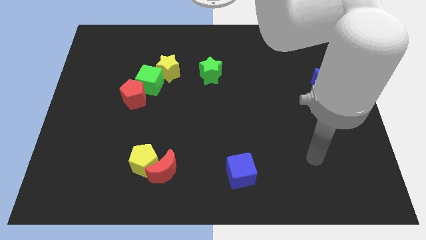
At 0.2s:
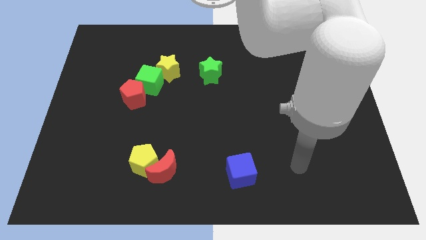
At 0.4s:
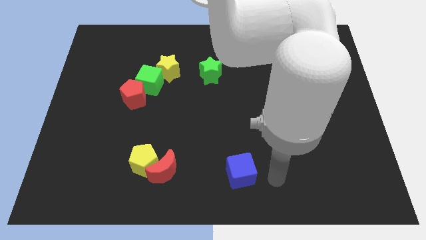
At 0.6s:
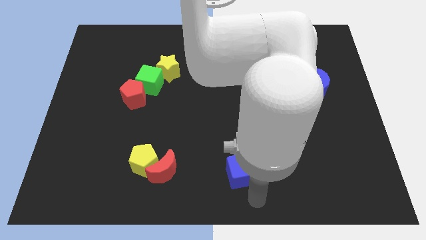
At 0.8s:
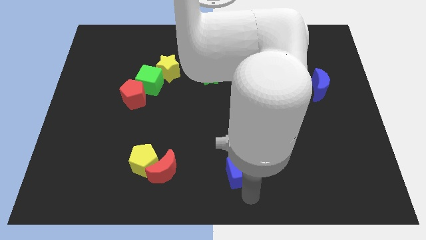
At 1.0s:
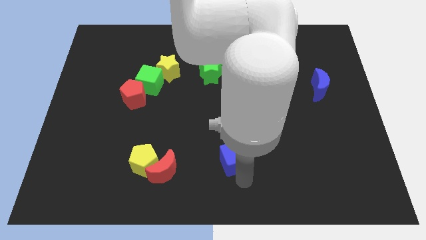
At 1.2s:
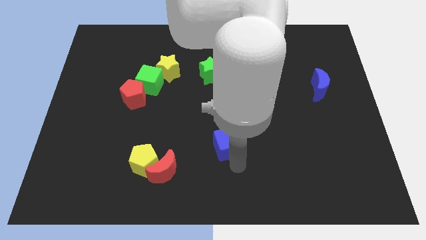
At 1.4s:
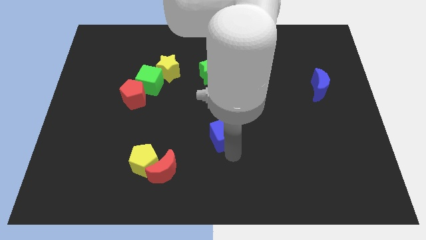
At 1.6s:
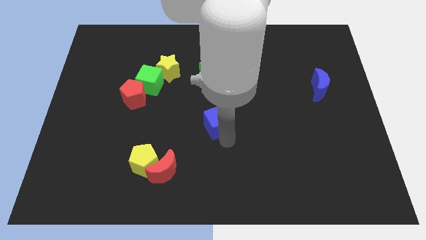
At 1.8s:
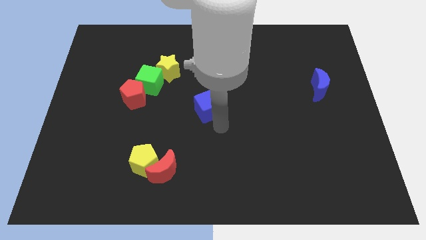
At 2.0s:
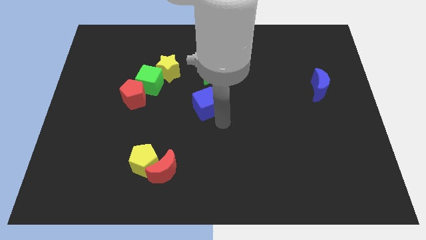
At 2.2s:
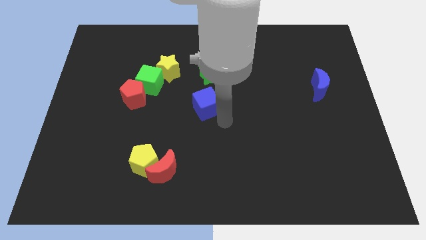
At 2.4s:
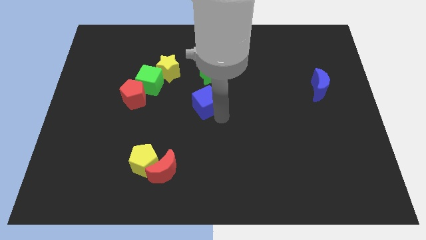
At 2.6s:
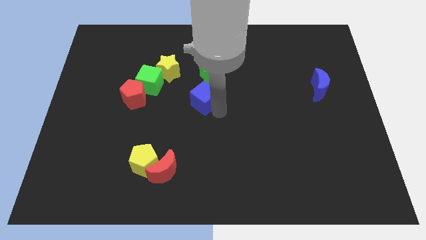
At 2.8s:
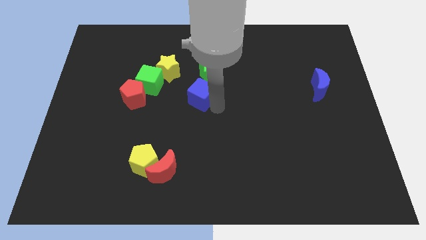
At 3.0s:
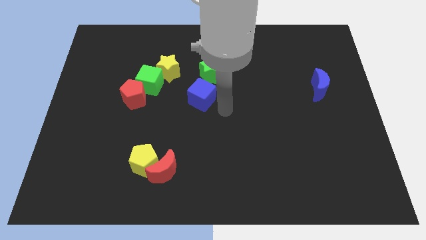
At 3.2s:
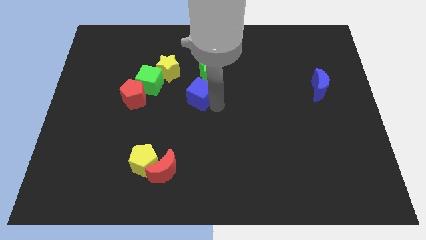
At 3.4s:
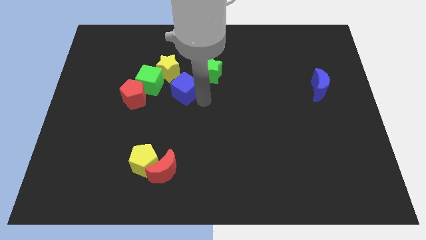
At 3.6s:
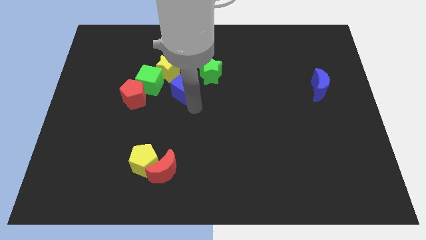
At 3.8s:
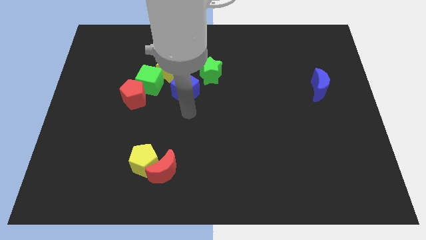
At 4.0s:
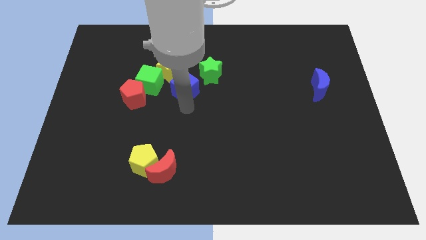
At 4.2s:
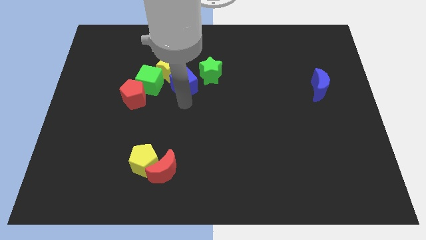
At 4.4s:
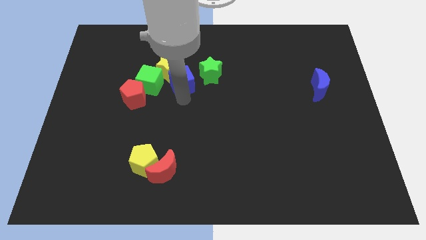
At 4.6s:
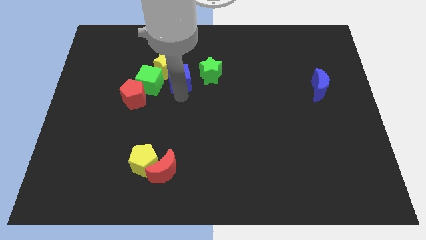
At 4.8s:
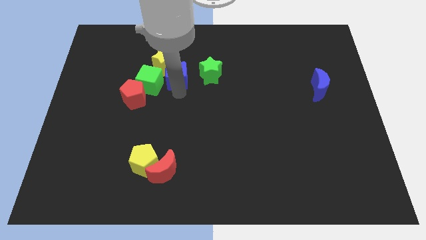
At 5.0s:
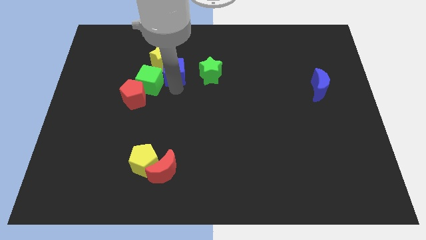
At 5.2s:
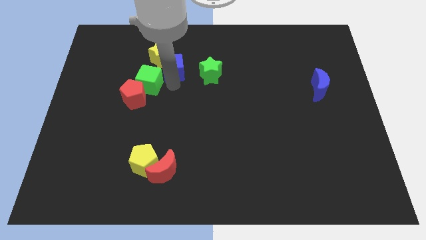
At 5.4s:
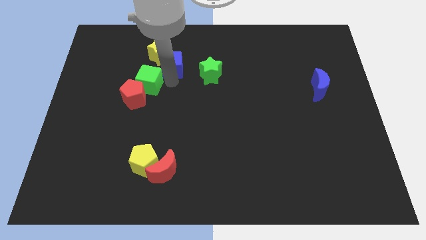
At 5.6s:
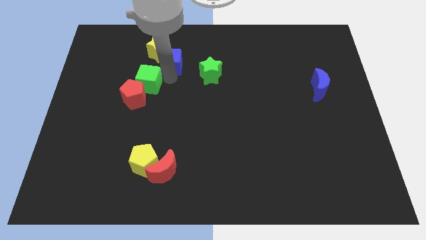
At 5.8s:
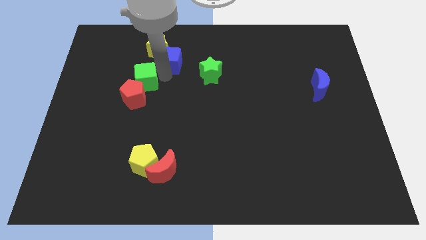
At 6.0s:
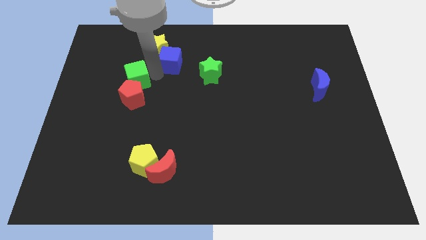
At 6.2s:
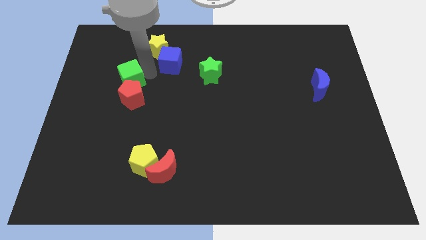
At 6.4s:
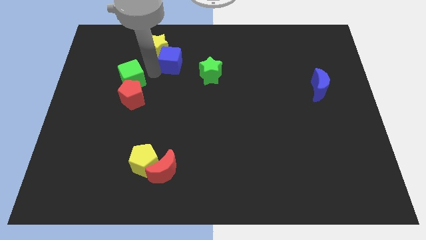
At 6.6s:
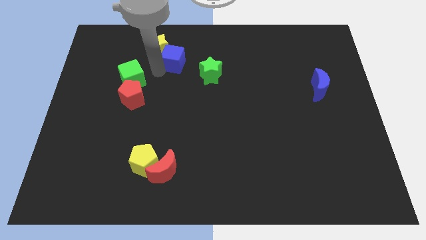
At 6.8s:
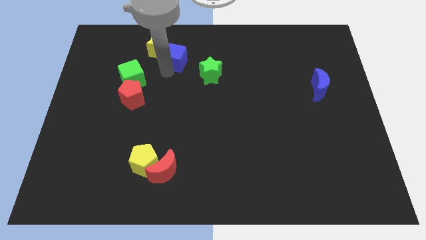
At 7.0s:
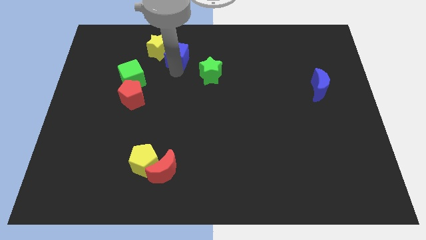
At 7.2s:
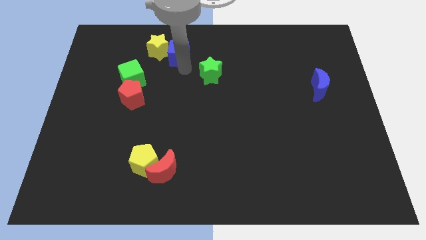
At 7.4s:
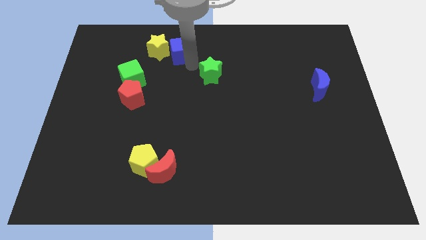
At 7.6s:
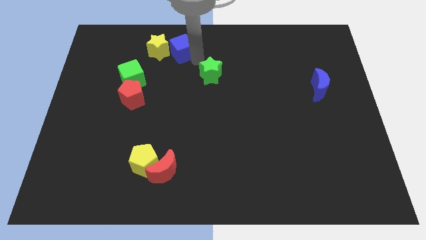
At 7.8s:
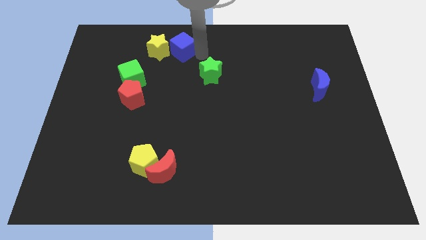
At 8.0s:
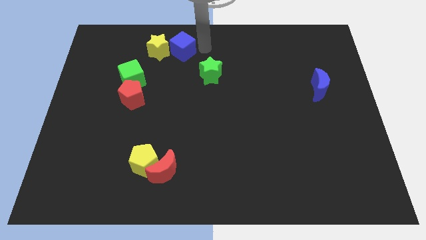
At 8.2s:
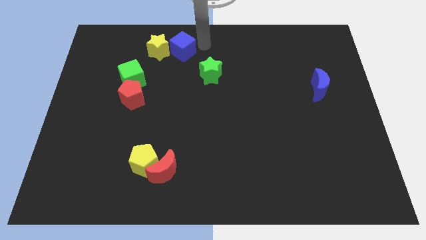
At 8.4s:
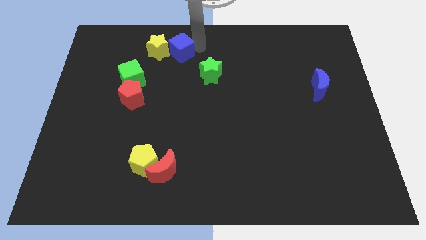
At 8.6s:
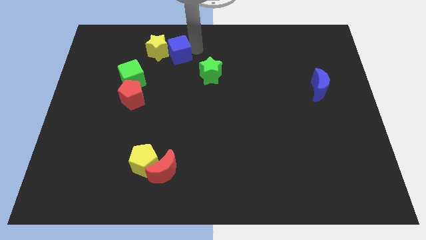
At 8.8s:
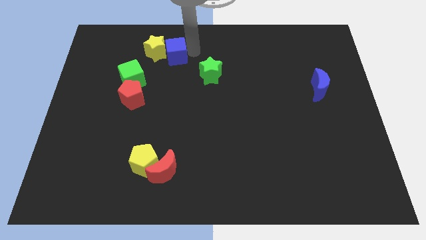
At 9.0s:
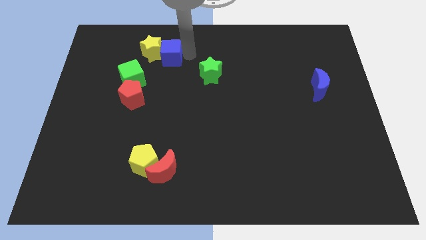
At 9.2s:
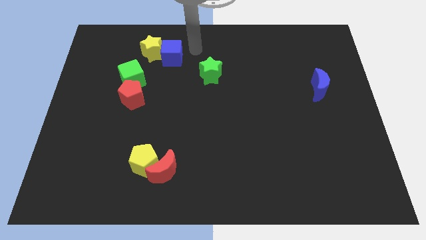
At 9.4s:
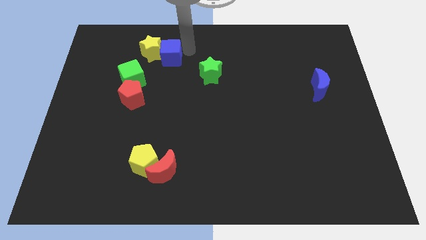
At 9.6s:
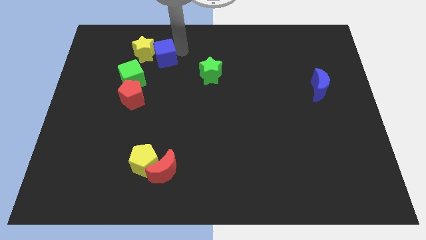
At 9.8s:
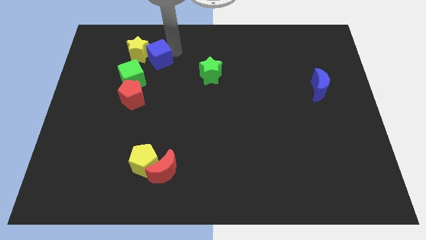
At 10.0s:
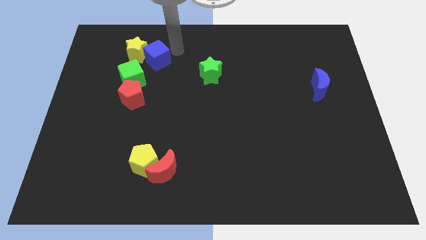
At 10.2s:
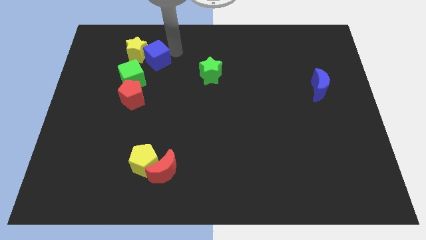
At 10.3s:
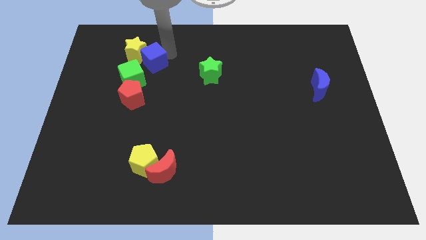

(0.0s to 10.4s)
move the blue cube to the top side of the red pentagon

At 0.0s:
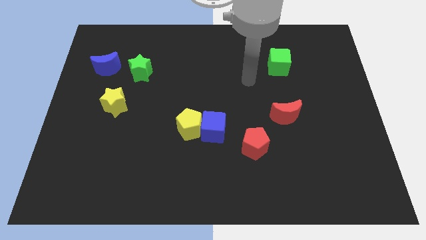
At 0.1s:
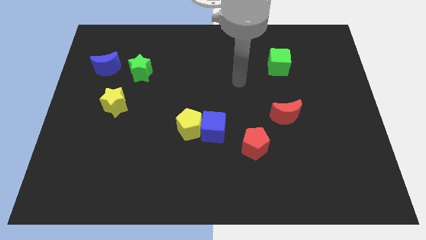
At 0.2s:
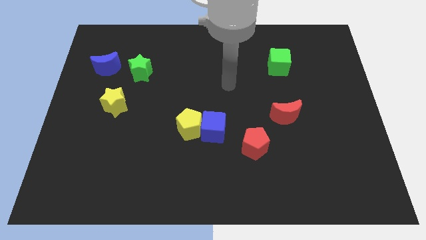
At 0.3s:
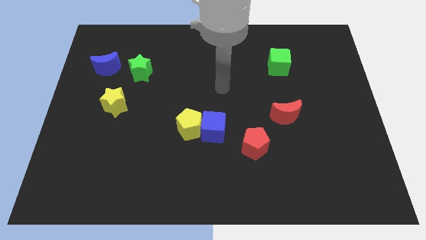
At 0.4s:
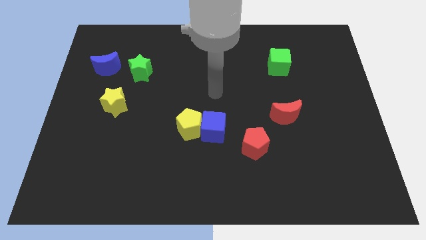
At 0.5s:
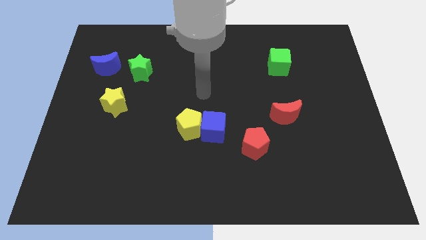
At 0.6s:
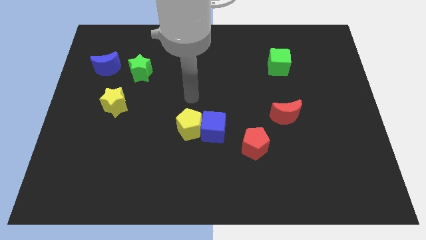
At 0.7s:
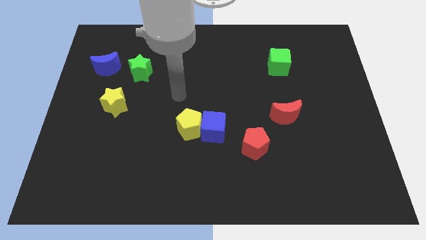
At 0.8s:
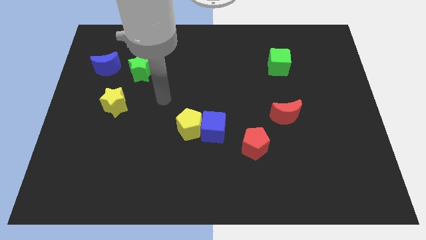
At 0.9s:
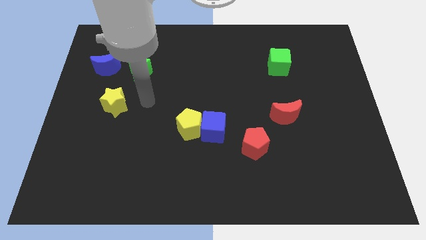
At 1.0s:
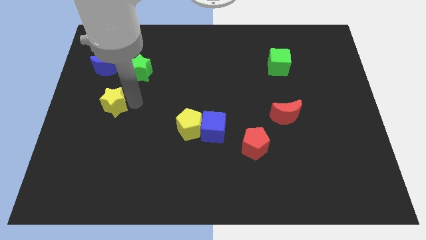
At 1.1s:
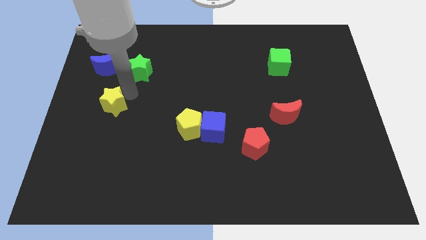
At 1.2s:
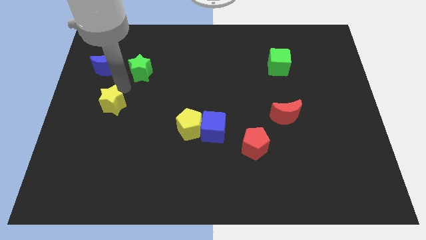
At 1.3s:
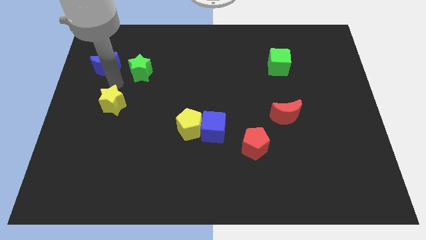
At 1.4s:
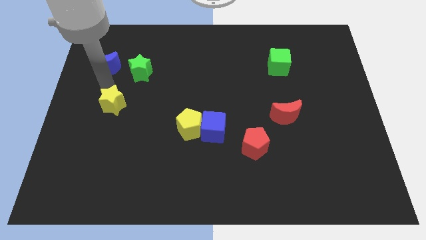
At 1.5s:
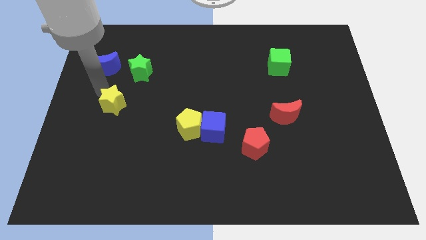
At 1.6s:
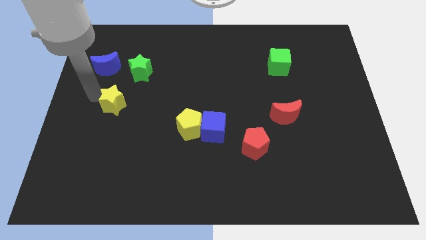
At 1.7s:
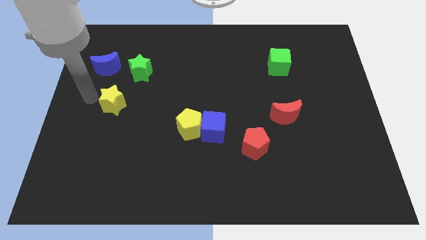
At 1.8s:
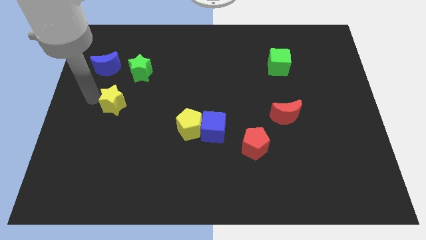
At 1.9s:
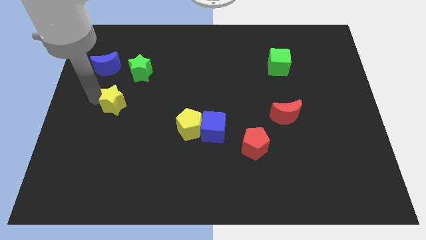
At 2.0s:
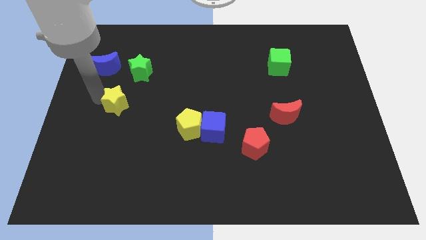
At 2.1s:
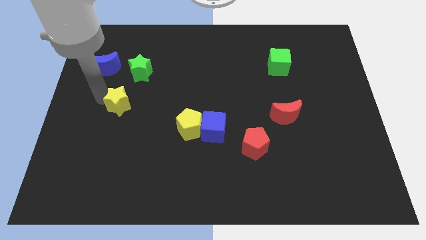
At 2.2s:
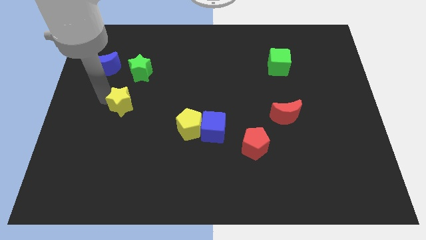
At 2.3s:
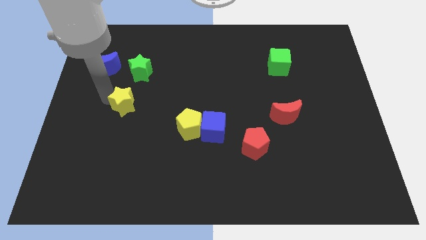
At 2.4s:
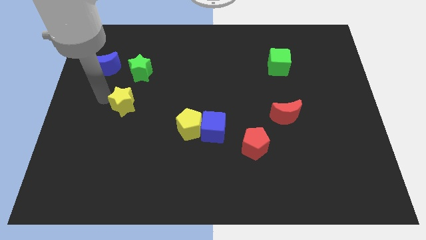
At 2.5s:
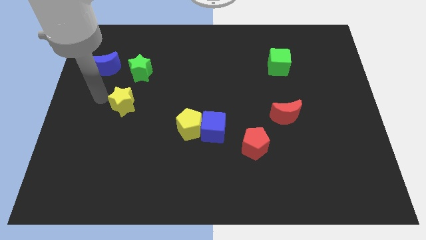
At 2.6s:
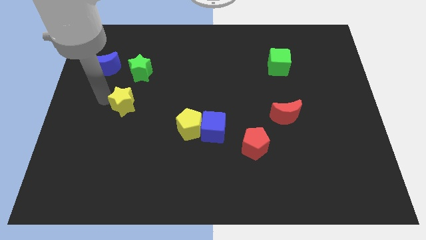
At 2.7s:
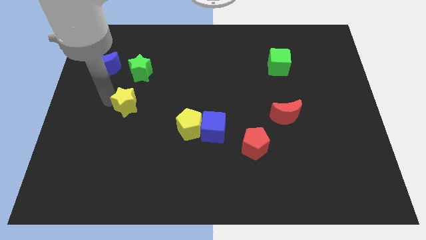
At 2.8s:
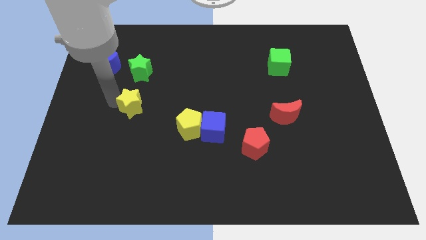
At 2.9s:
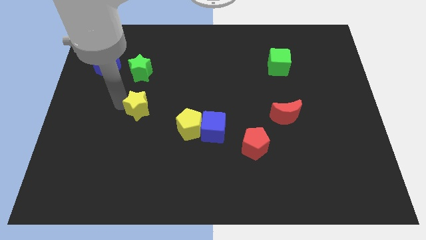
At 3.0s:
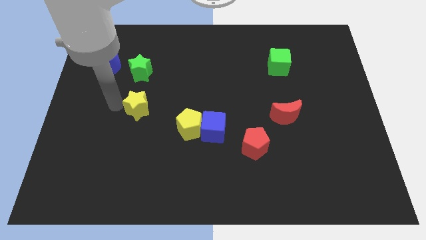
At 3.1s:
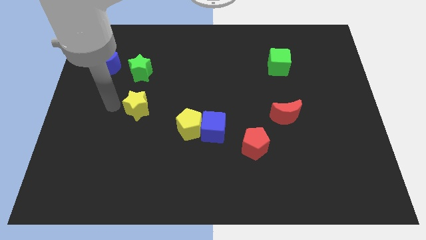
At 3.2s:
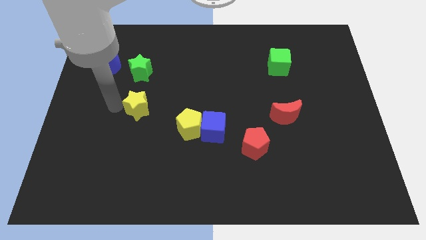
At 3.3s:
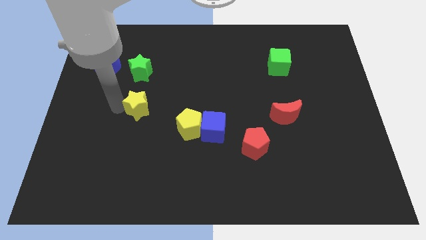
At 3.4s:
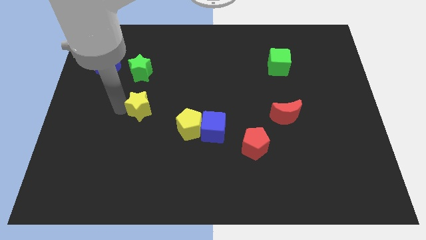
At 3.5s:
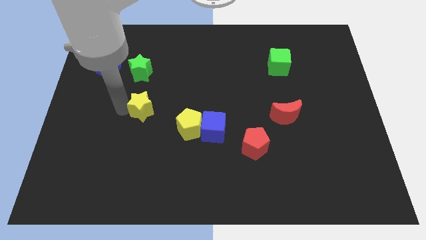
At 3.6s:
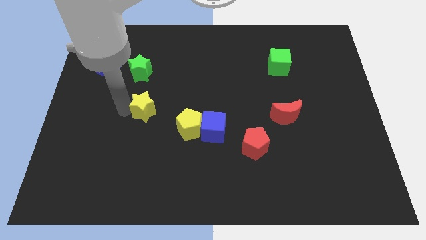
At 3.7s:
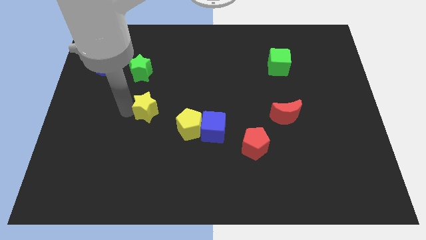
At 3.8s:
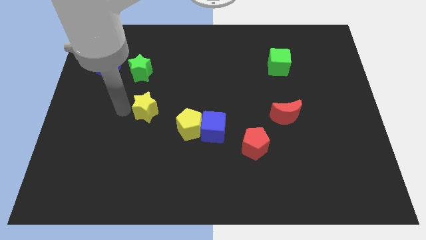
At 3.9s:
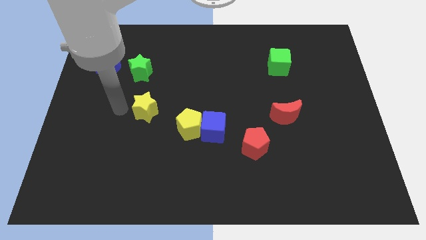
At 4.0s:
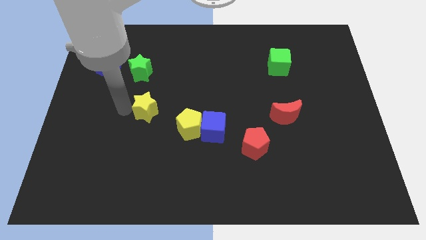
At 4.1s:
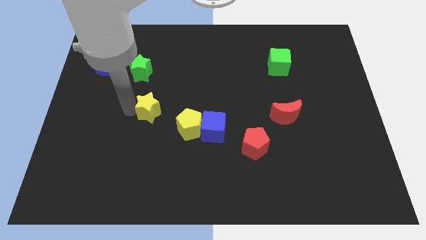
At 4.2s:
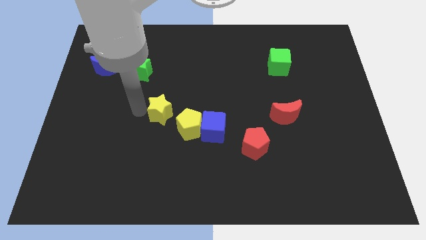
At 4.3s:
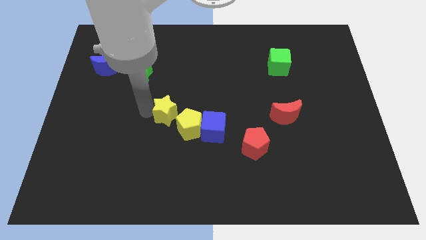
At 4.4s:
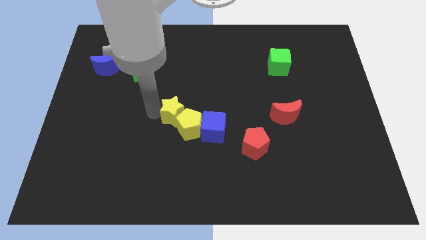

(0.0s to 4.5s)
push the yellow star to the top left side of the blue cube
